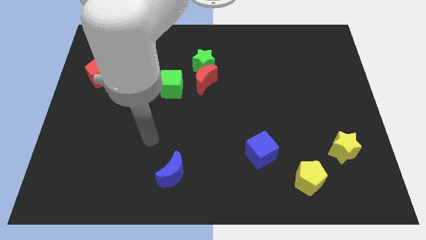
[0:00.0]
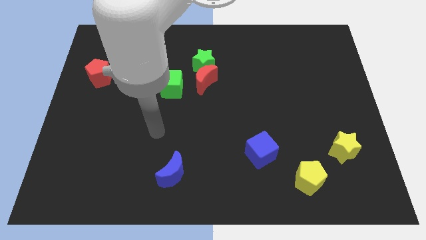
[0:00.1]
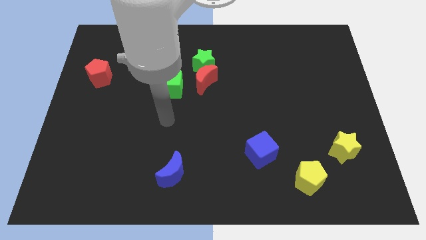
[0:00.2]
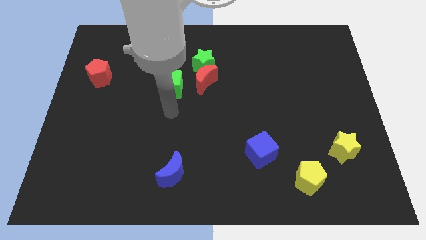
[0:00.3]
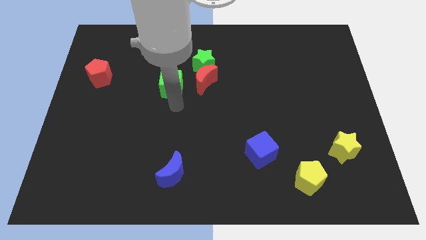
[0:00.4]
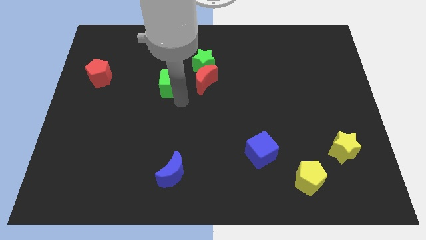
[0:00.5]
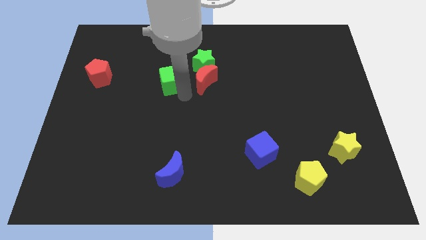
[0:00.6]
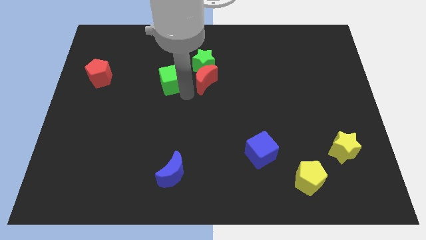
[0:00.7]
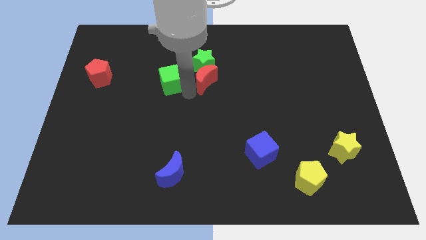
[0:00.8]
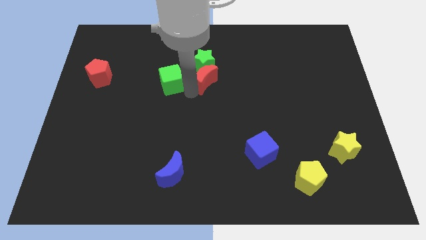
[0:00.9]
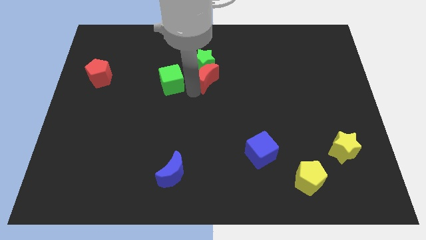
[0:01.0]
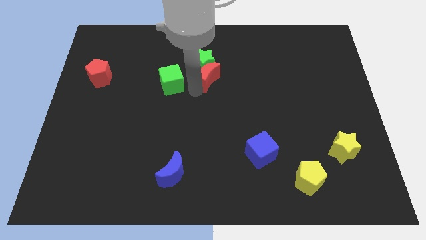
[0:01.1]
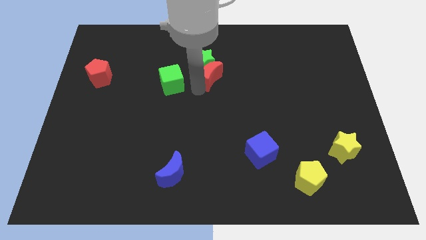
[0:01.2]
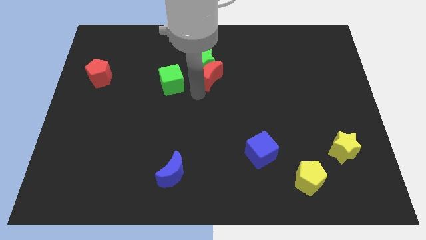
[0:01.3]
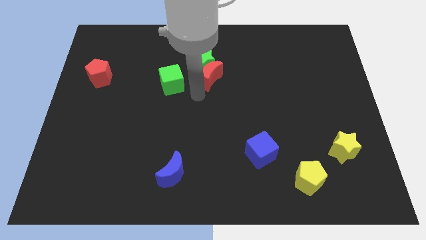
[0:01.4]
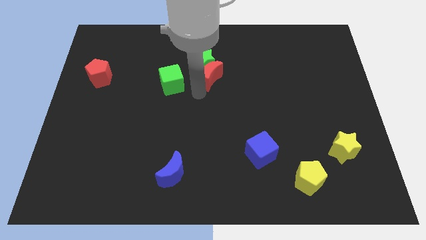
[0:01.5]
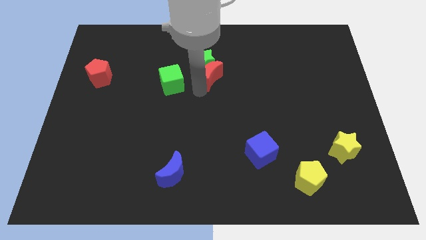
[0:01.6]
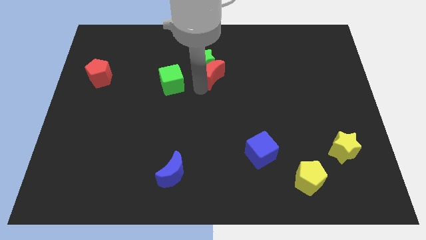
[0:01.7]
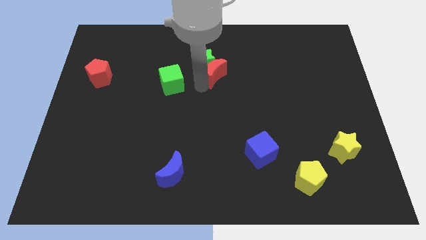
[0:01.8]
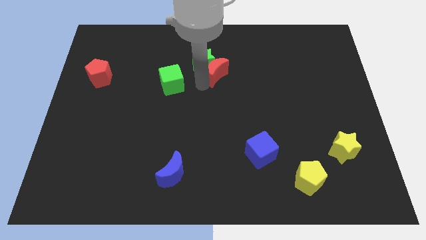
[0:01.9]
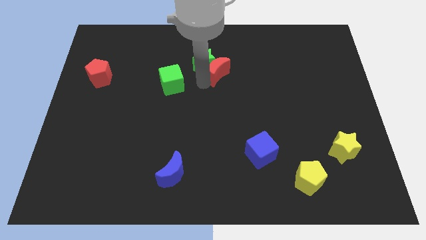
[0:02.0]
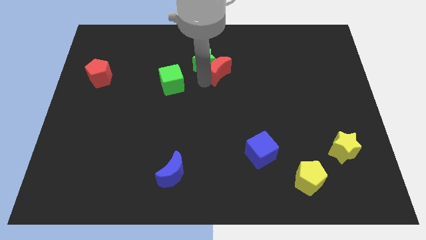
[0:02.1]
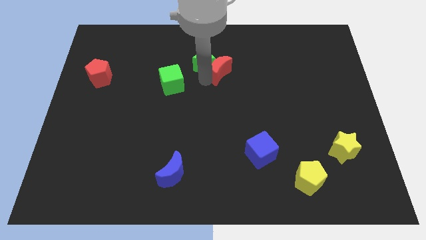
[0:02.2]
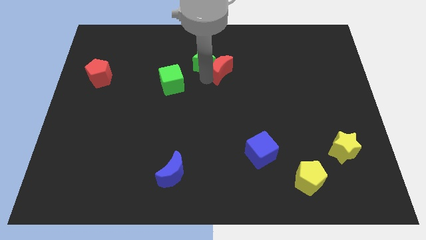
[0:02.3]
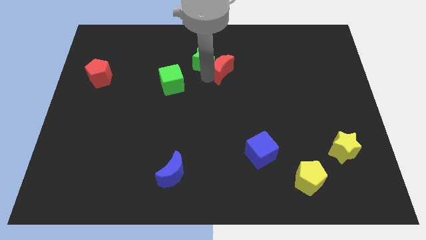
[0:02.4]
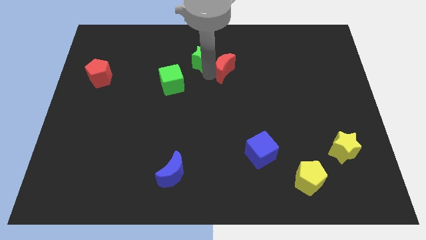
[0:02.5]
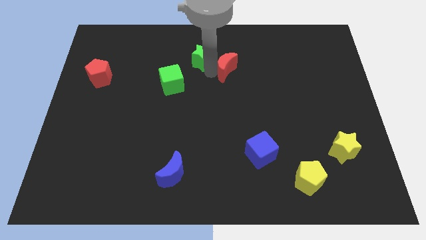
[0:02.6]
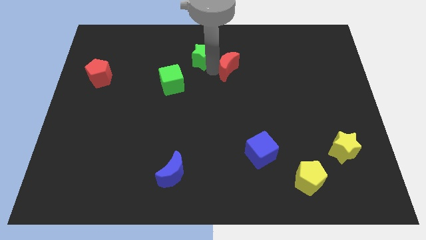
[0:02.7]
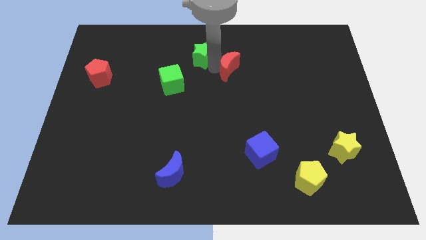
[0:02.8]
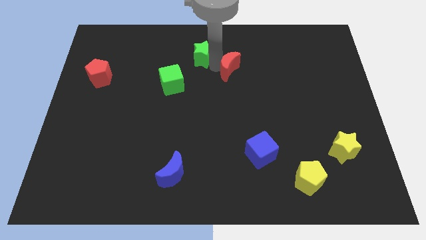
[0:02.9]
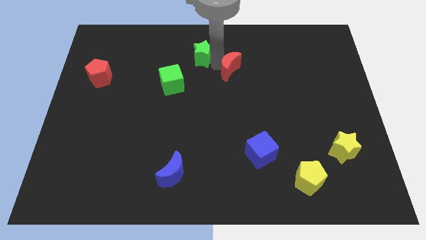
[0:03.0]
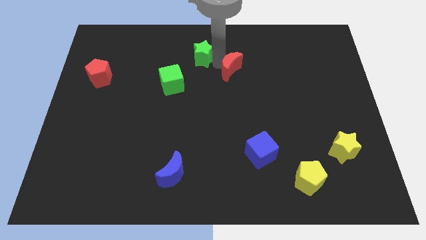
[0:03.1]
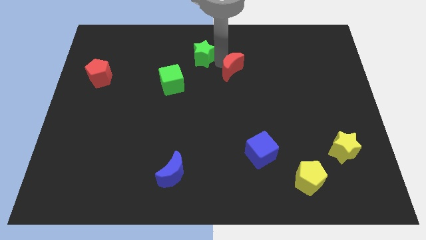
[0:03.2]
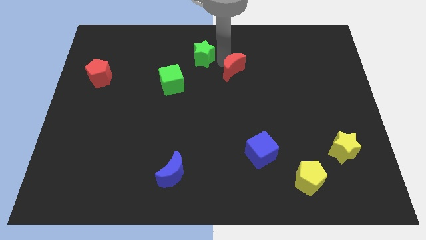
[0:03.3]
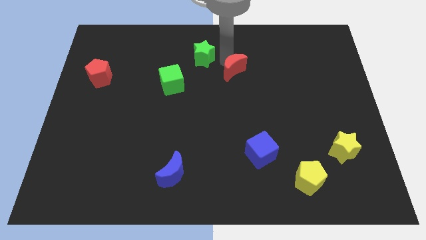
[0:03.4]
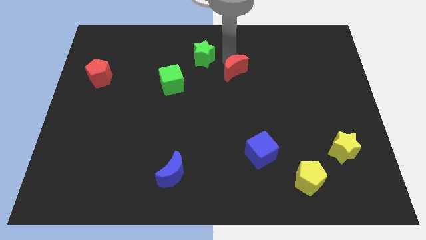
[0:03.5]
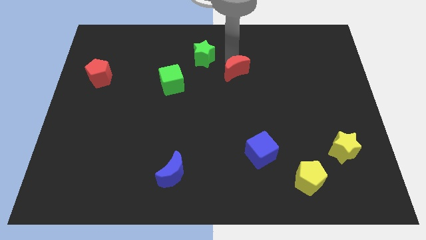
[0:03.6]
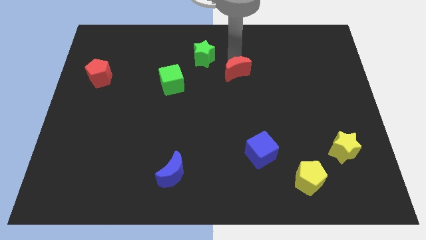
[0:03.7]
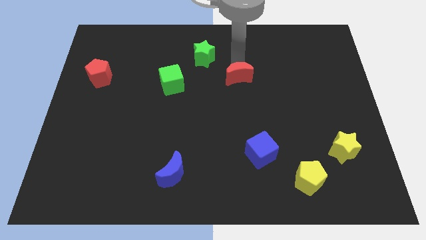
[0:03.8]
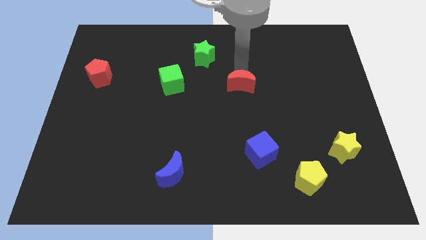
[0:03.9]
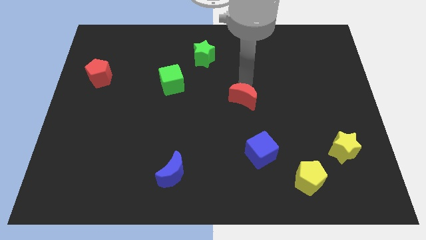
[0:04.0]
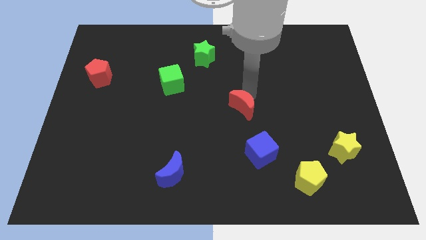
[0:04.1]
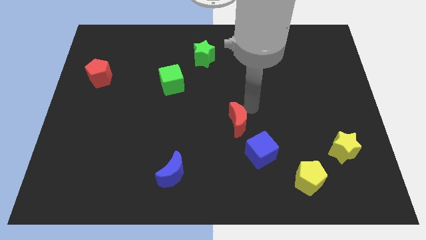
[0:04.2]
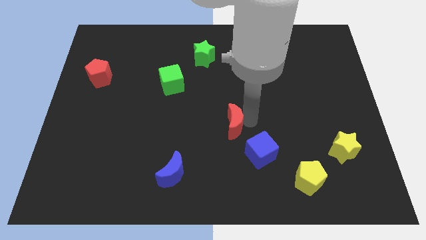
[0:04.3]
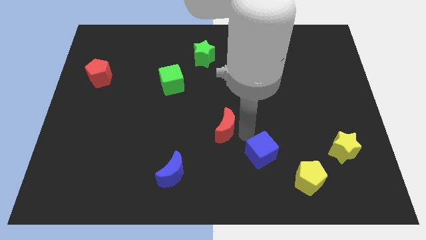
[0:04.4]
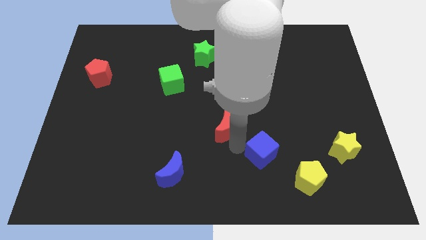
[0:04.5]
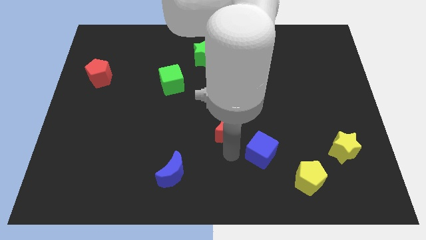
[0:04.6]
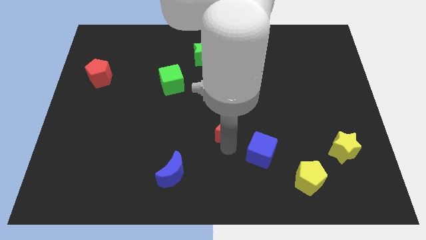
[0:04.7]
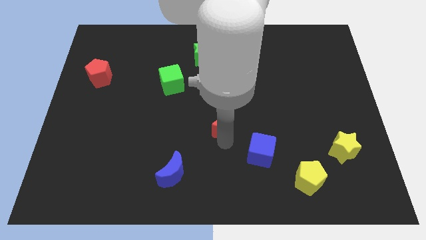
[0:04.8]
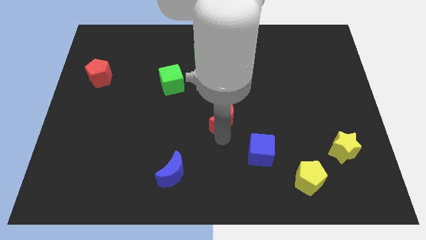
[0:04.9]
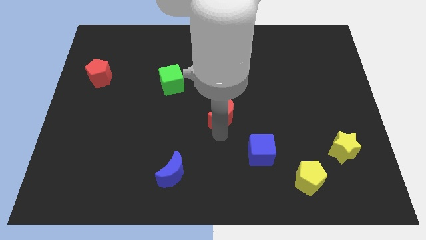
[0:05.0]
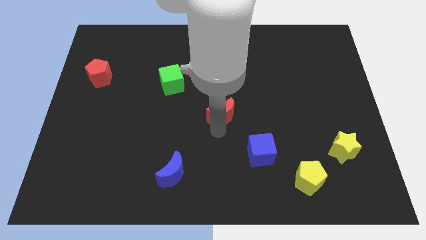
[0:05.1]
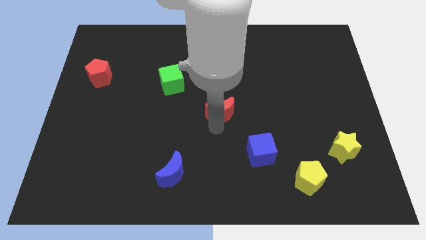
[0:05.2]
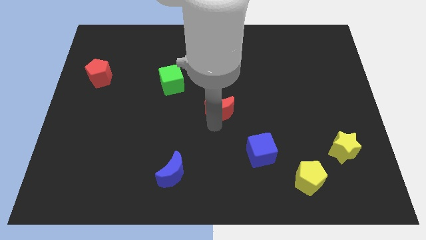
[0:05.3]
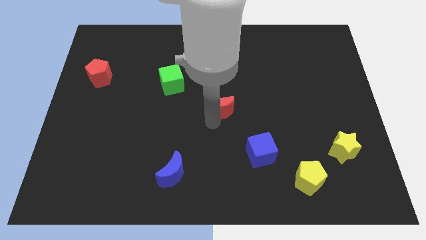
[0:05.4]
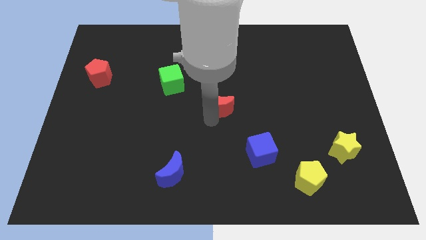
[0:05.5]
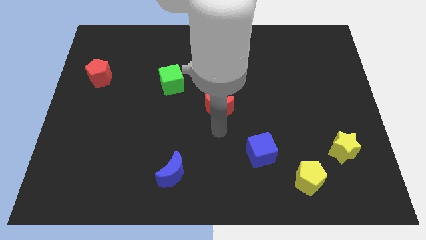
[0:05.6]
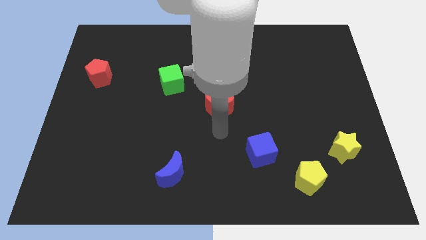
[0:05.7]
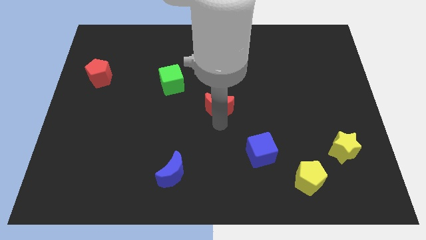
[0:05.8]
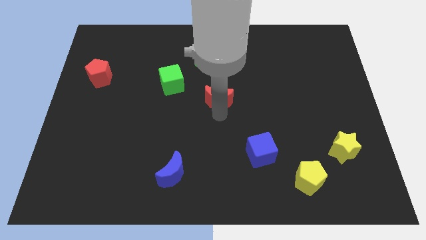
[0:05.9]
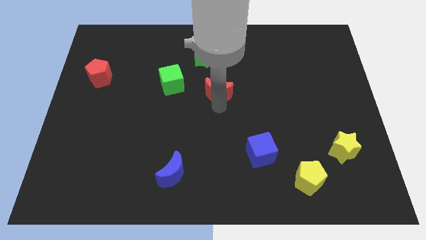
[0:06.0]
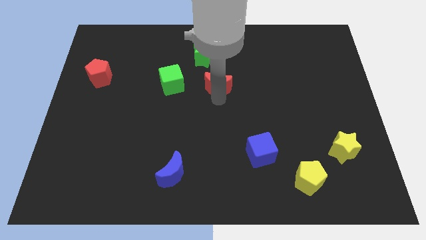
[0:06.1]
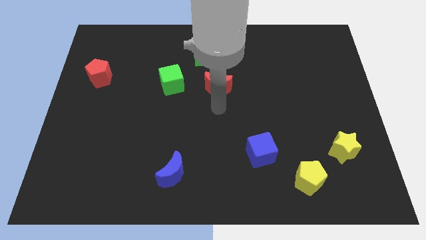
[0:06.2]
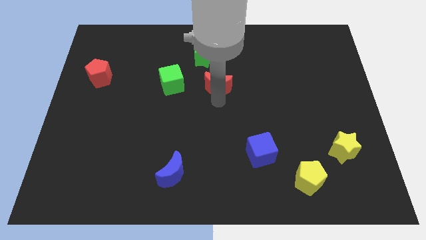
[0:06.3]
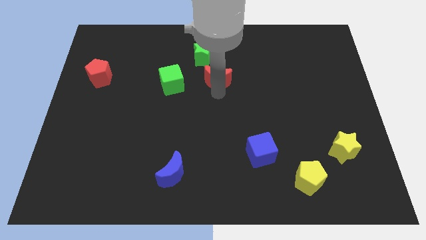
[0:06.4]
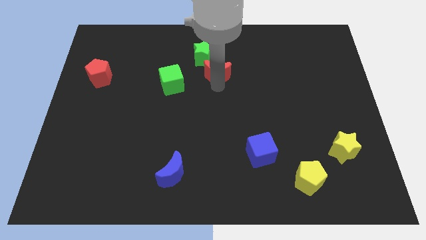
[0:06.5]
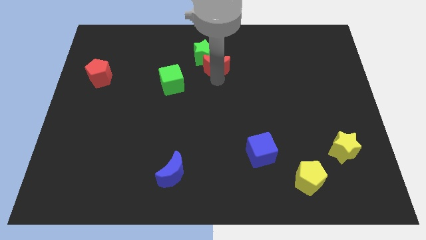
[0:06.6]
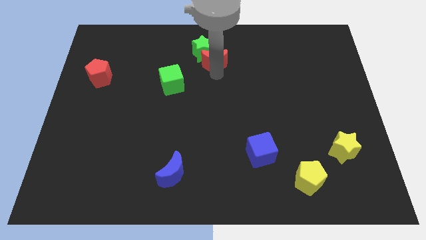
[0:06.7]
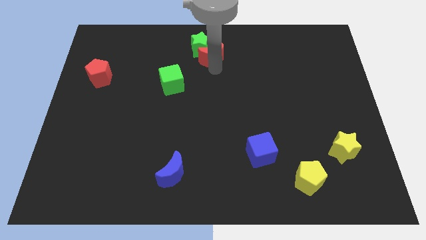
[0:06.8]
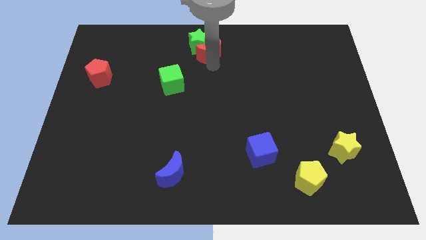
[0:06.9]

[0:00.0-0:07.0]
slide the red moon to the towards your base

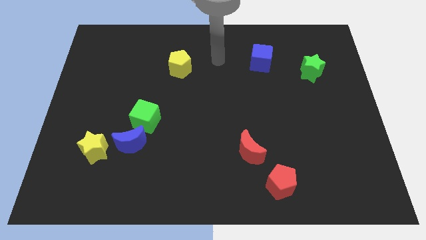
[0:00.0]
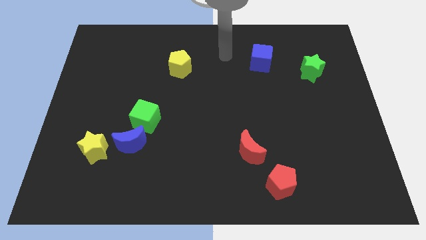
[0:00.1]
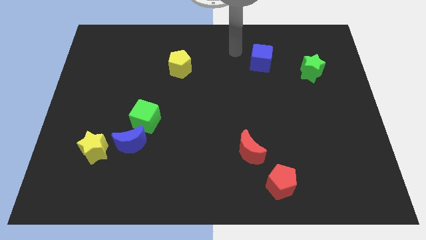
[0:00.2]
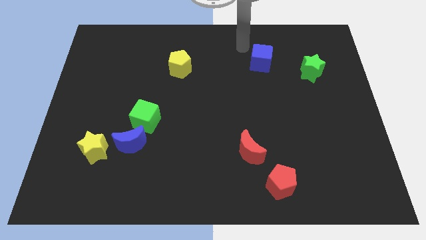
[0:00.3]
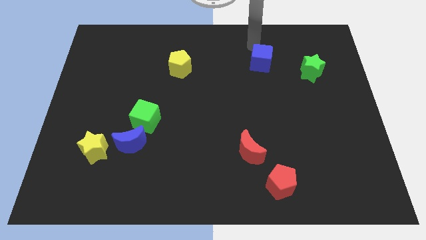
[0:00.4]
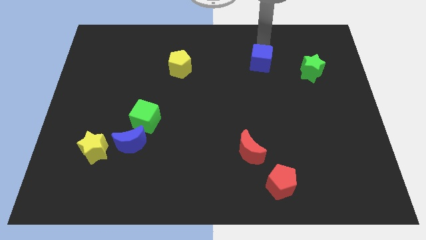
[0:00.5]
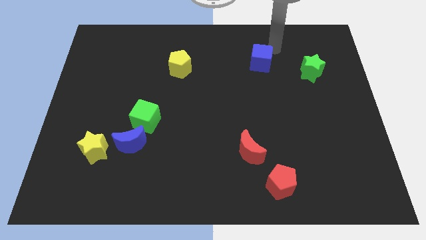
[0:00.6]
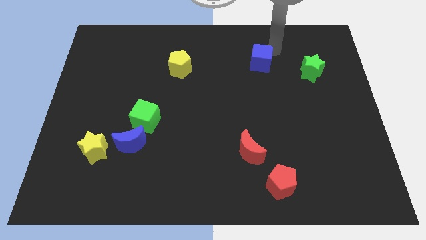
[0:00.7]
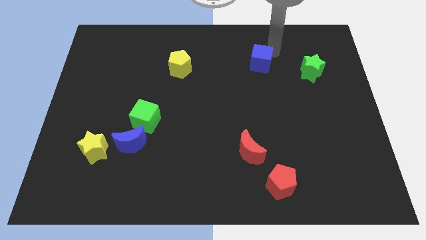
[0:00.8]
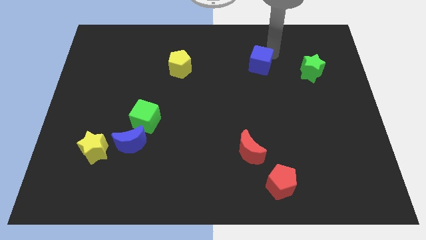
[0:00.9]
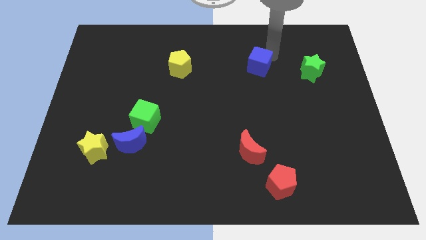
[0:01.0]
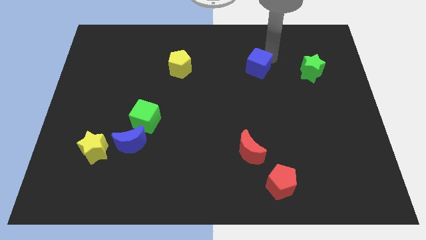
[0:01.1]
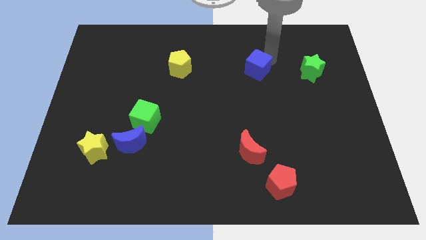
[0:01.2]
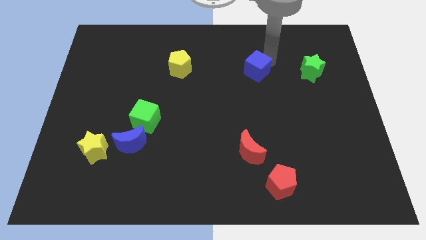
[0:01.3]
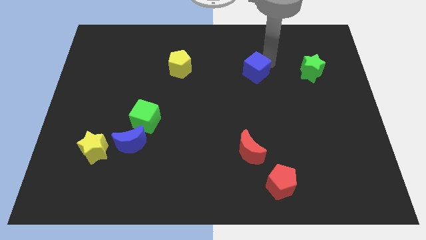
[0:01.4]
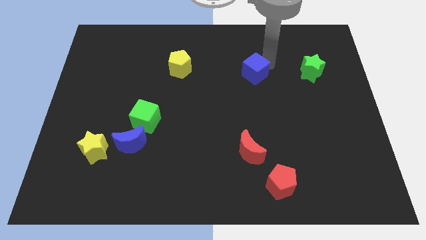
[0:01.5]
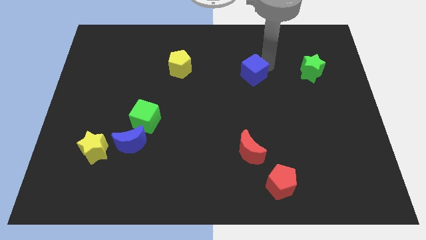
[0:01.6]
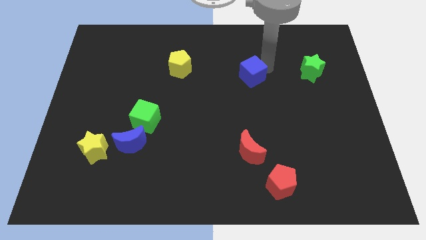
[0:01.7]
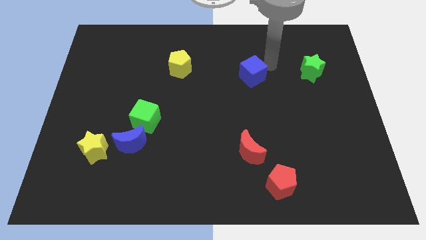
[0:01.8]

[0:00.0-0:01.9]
move the blue cube to the middle
